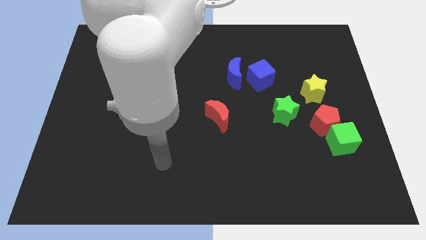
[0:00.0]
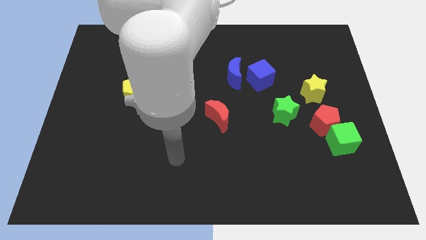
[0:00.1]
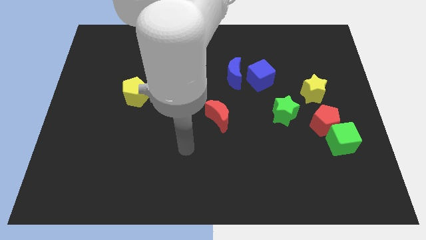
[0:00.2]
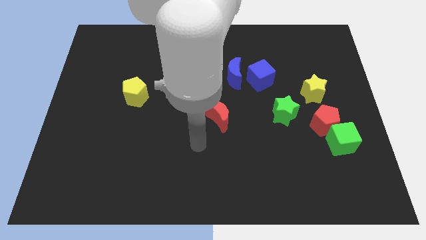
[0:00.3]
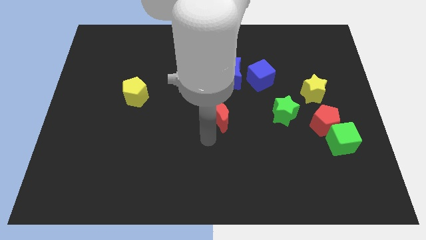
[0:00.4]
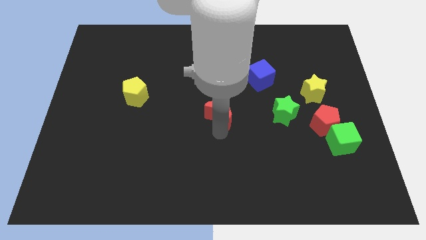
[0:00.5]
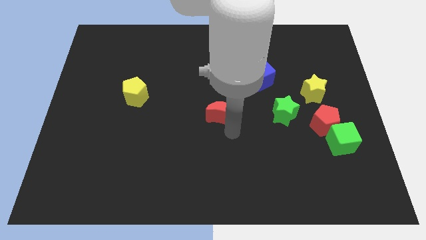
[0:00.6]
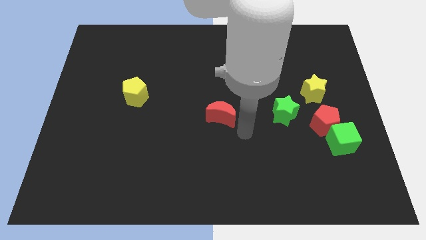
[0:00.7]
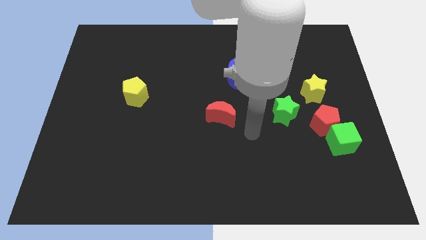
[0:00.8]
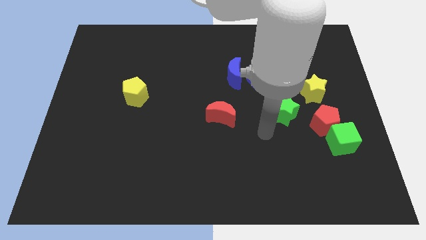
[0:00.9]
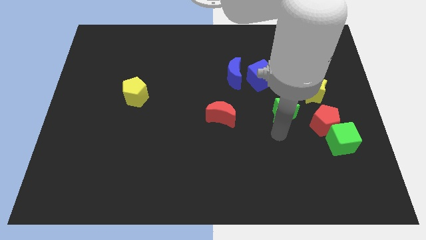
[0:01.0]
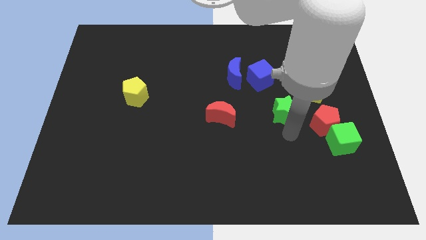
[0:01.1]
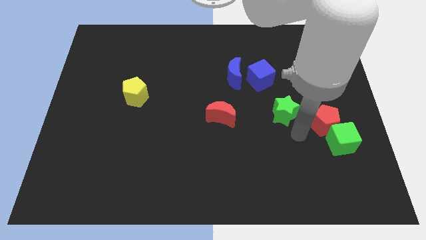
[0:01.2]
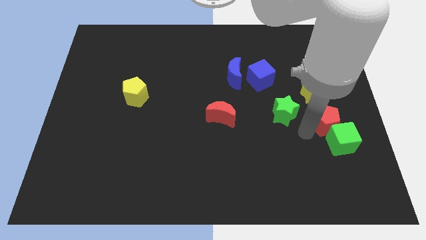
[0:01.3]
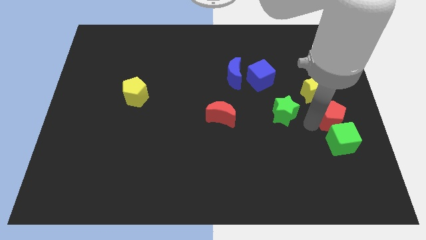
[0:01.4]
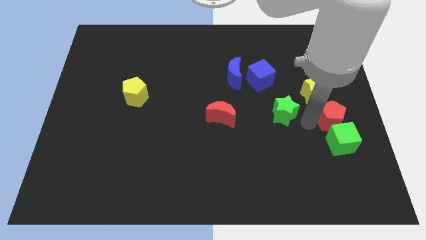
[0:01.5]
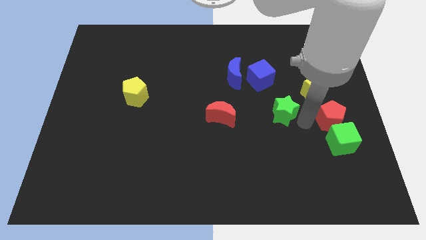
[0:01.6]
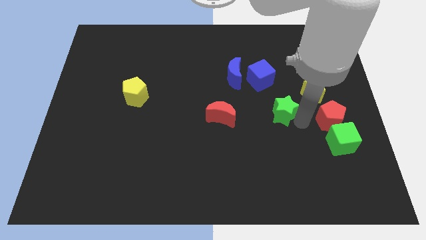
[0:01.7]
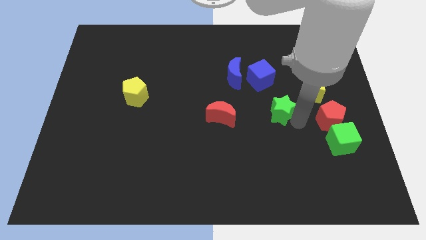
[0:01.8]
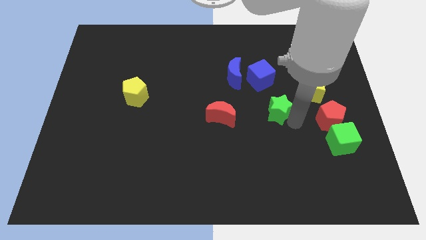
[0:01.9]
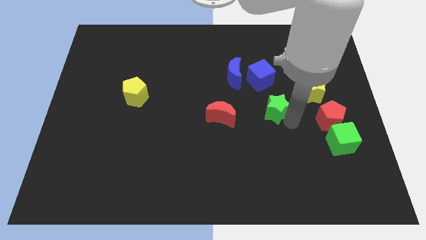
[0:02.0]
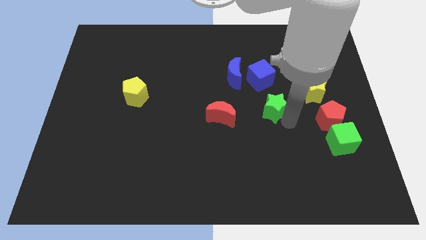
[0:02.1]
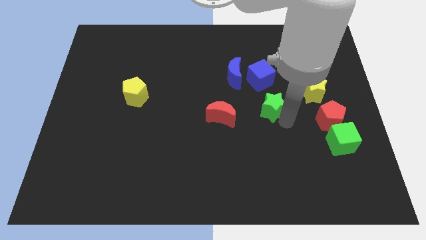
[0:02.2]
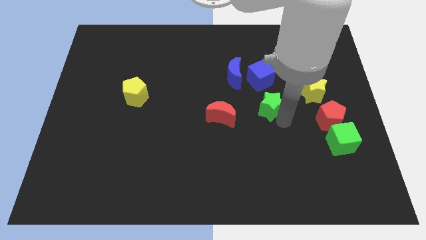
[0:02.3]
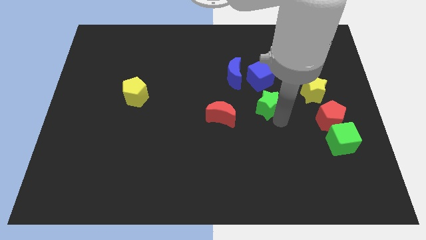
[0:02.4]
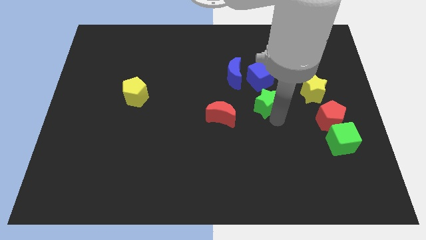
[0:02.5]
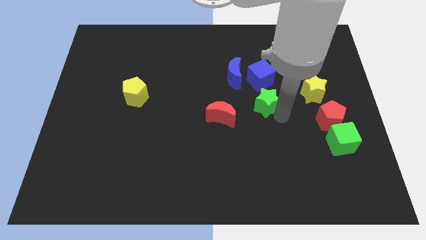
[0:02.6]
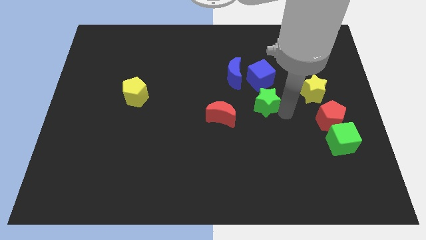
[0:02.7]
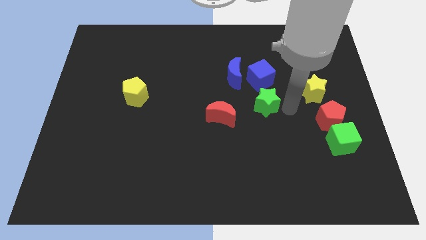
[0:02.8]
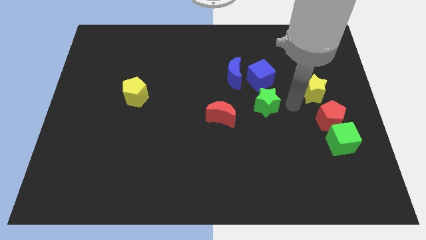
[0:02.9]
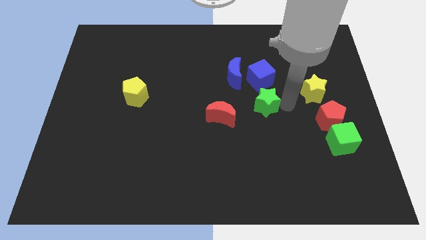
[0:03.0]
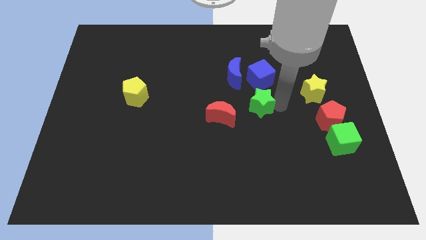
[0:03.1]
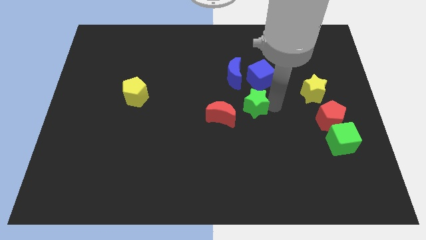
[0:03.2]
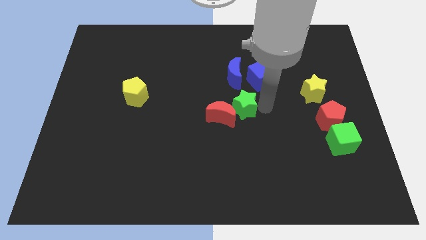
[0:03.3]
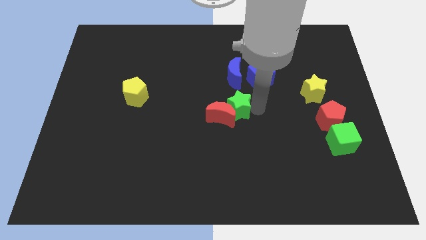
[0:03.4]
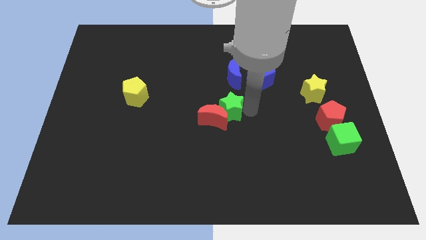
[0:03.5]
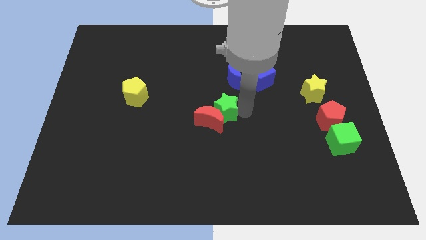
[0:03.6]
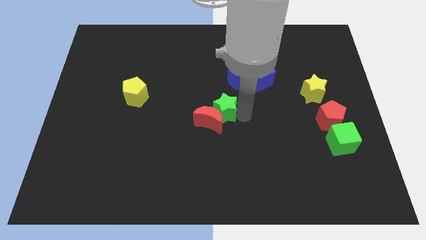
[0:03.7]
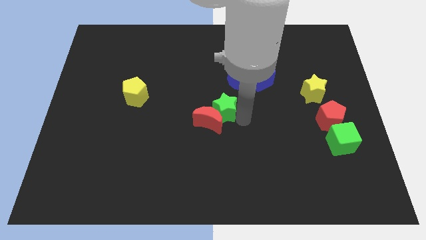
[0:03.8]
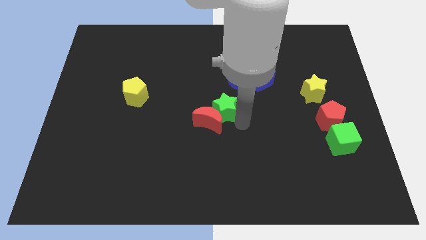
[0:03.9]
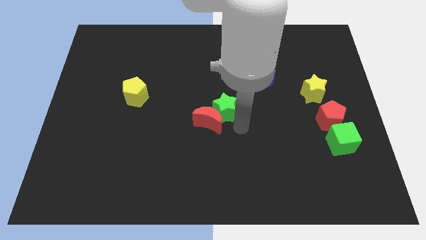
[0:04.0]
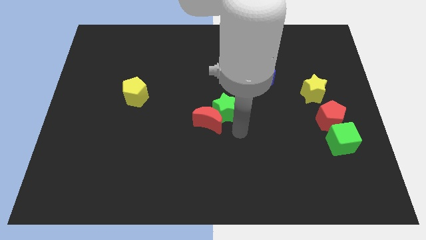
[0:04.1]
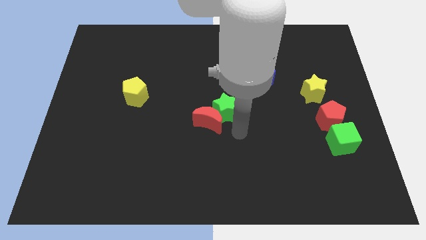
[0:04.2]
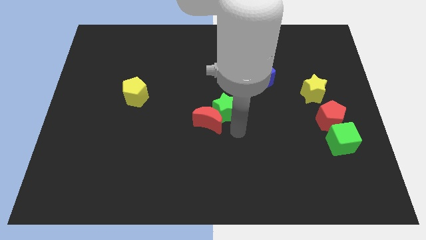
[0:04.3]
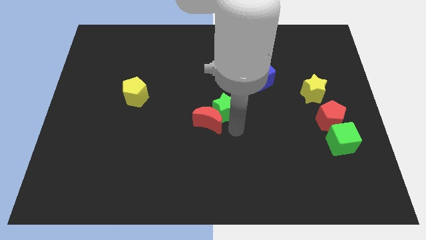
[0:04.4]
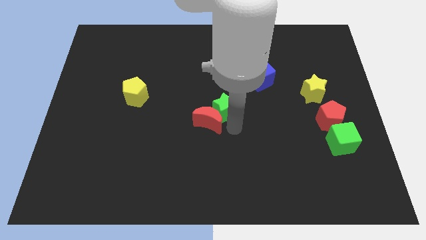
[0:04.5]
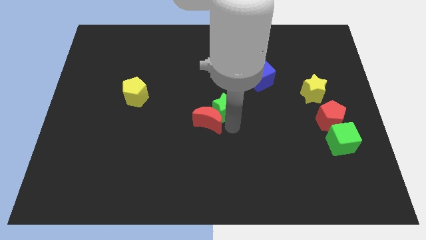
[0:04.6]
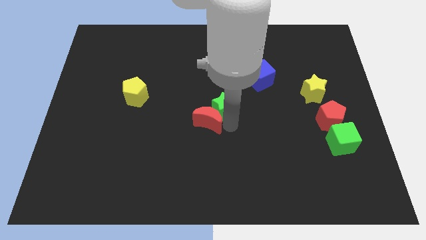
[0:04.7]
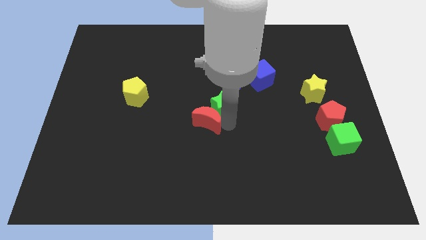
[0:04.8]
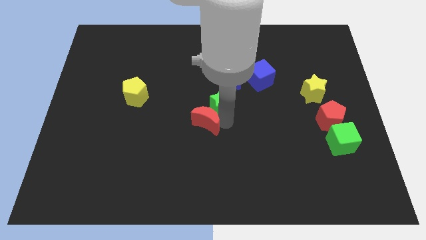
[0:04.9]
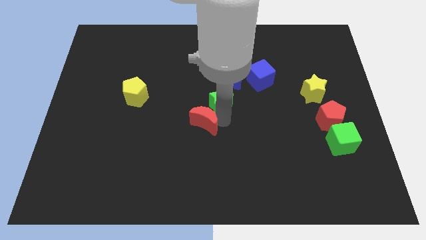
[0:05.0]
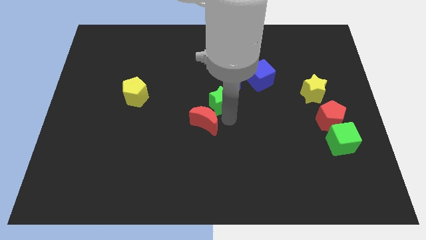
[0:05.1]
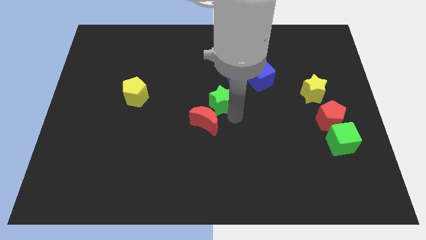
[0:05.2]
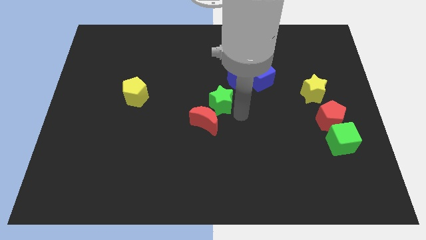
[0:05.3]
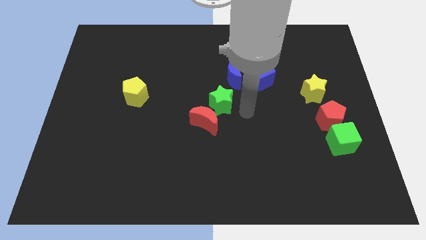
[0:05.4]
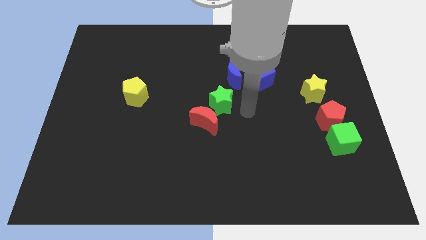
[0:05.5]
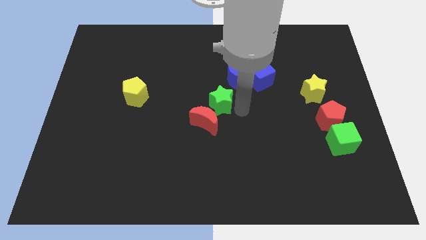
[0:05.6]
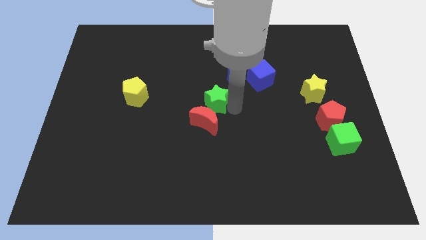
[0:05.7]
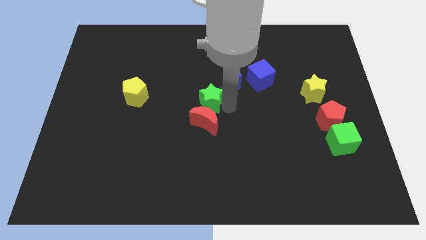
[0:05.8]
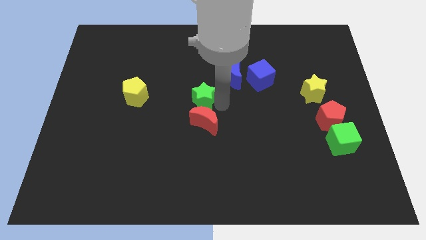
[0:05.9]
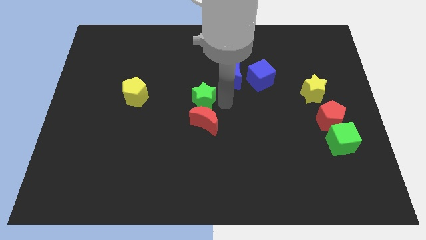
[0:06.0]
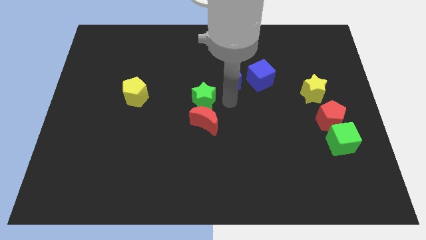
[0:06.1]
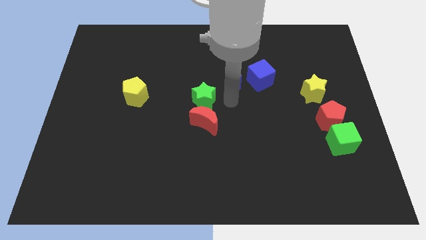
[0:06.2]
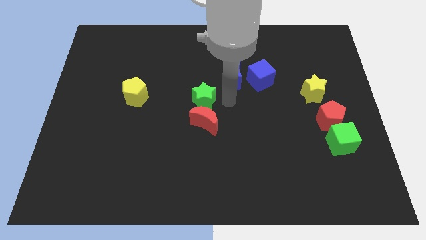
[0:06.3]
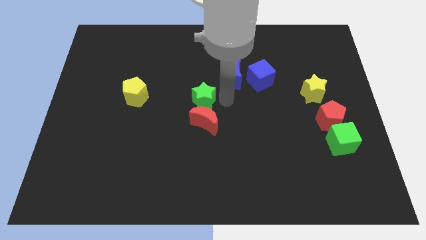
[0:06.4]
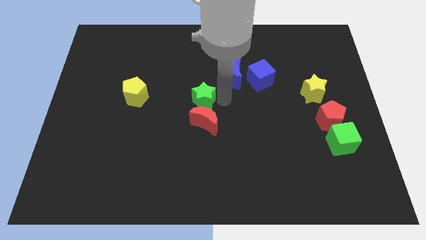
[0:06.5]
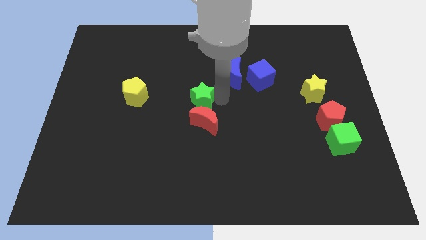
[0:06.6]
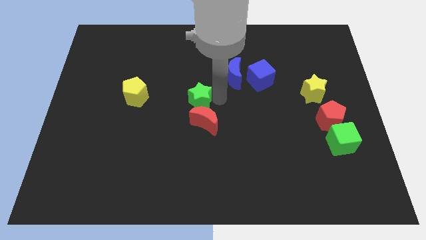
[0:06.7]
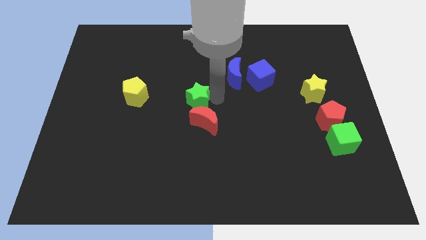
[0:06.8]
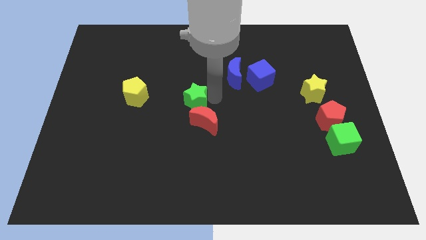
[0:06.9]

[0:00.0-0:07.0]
push the green star to the left

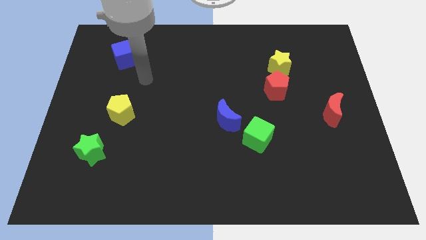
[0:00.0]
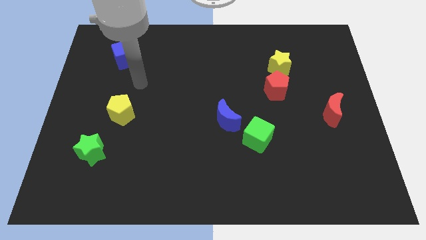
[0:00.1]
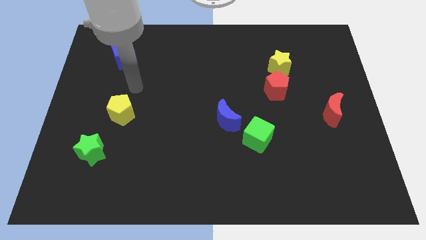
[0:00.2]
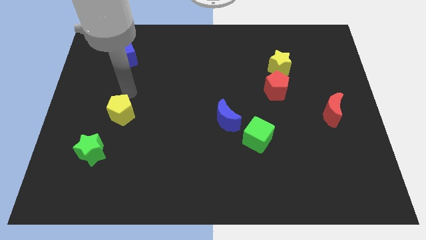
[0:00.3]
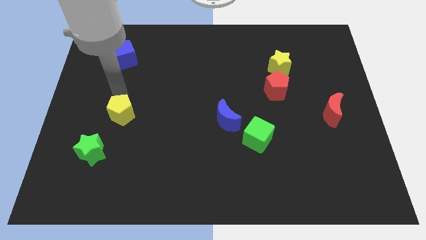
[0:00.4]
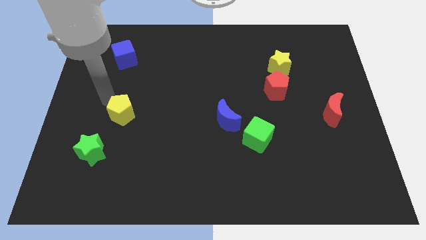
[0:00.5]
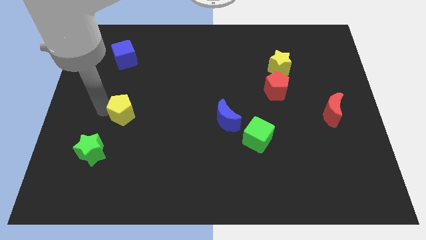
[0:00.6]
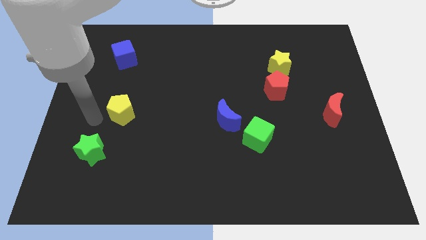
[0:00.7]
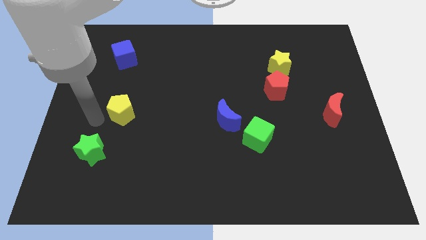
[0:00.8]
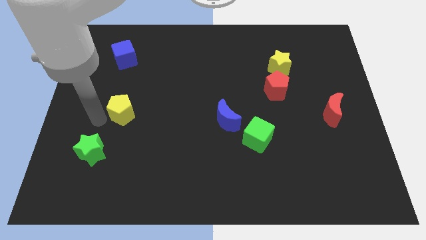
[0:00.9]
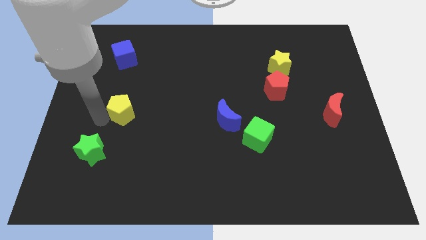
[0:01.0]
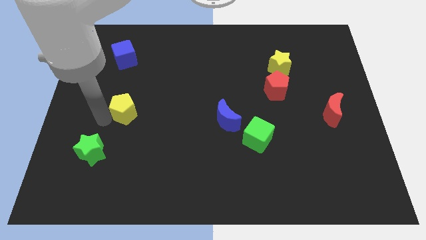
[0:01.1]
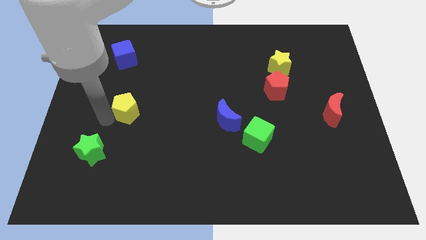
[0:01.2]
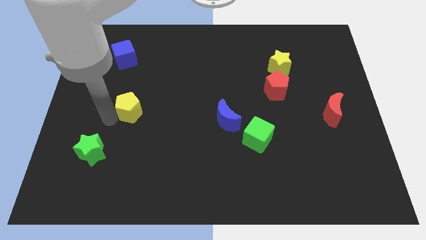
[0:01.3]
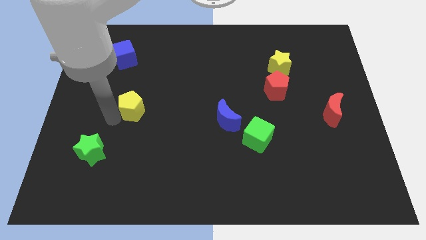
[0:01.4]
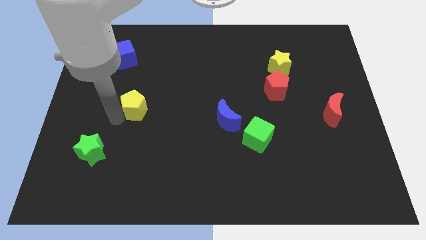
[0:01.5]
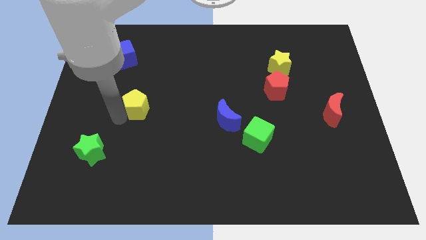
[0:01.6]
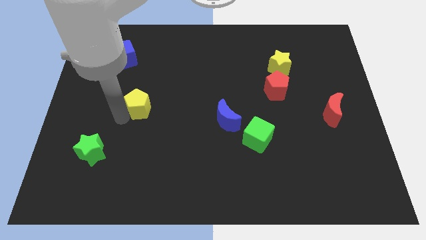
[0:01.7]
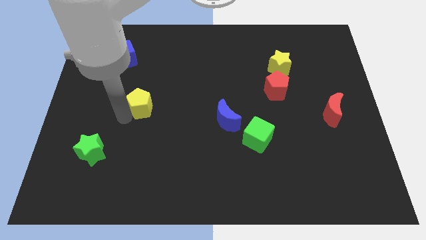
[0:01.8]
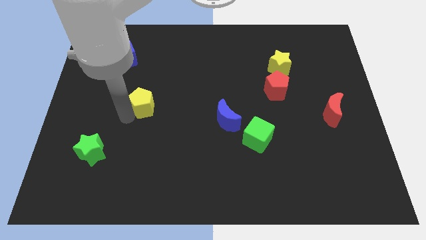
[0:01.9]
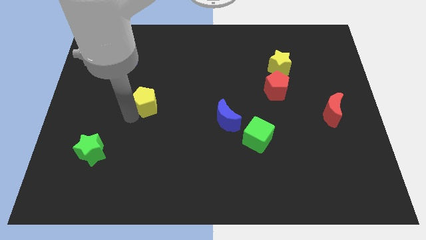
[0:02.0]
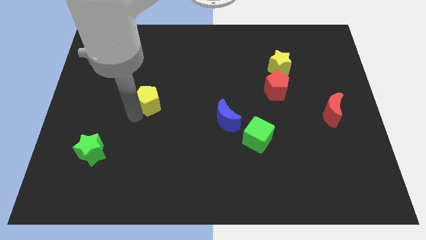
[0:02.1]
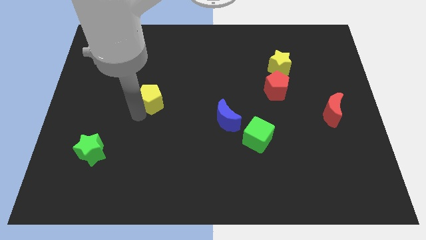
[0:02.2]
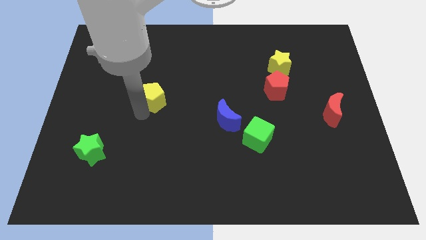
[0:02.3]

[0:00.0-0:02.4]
push the yellow pentagon a little bit diagonally up and to the right
